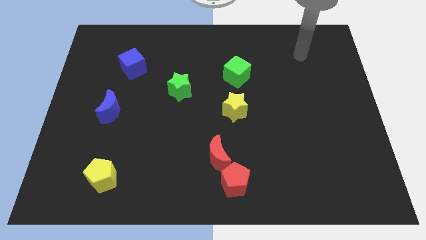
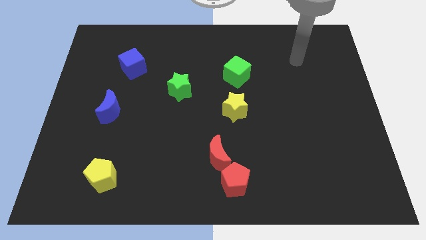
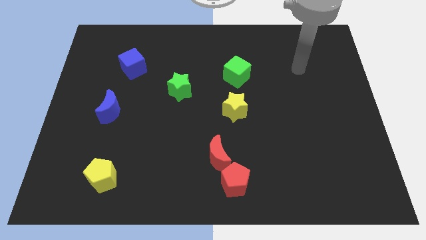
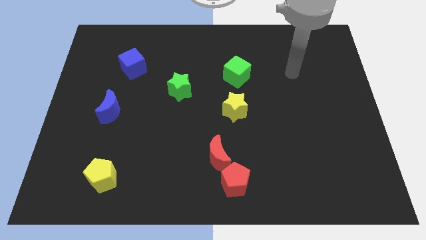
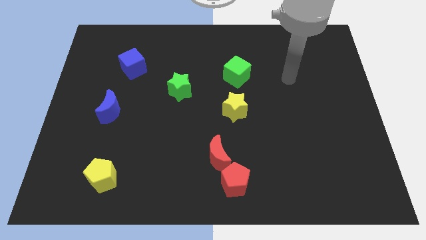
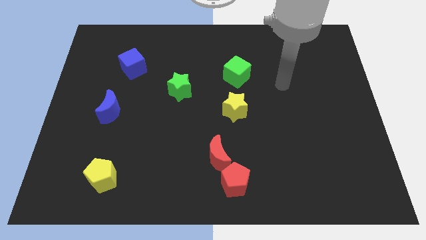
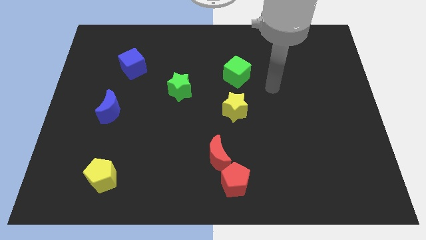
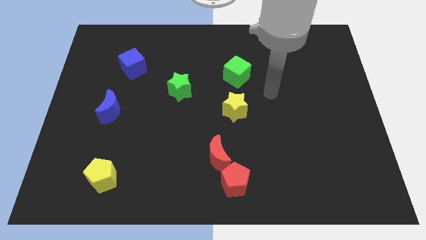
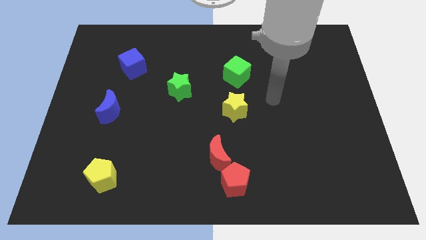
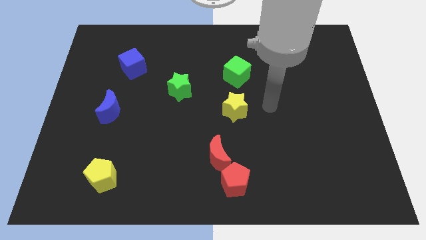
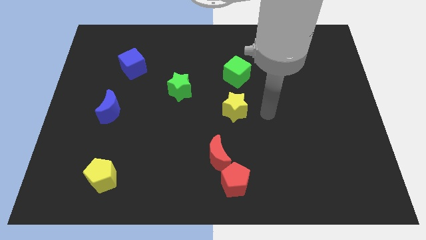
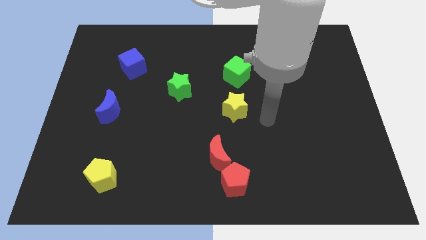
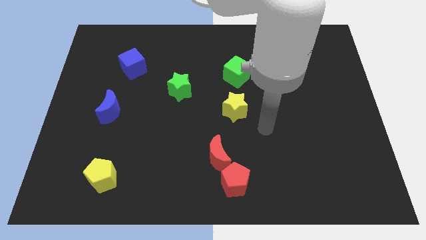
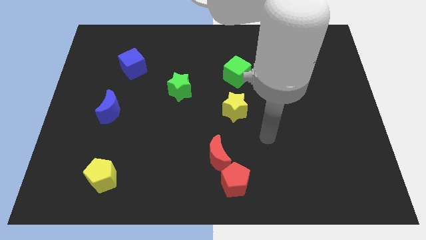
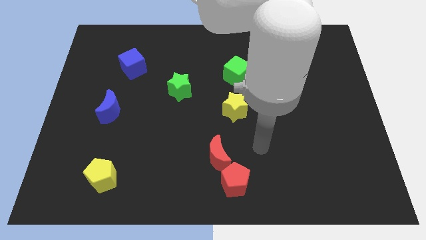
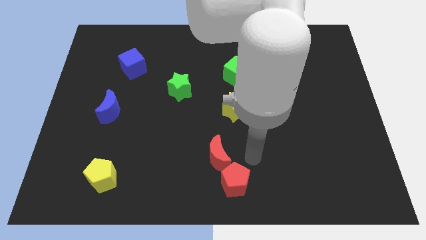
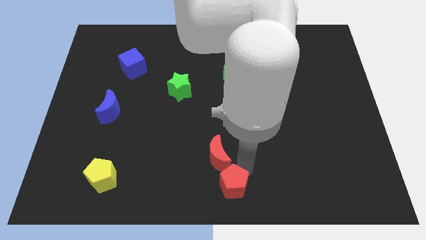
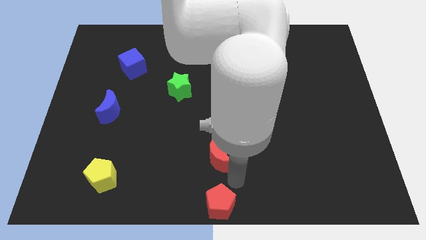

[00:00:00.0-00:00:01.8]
pull the red moon apart from the red pentagon

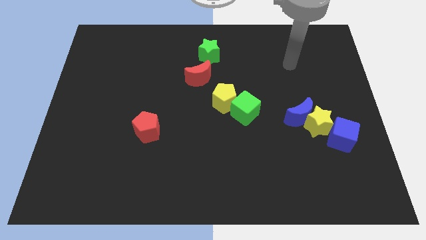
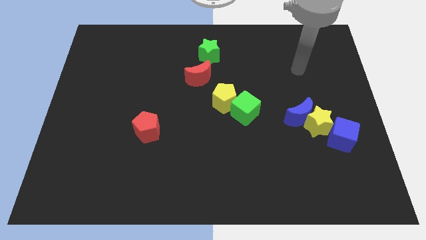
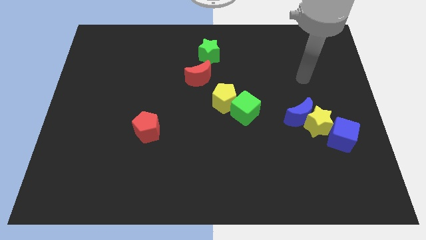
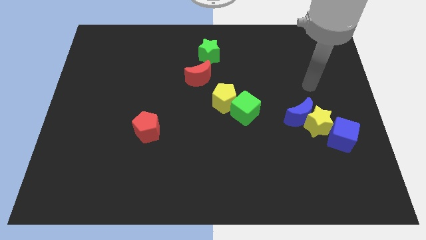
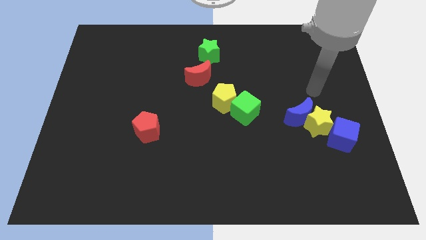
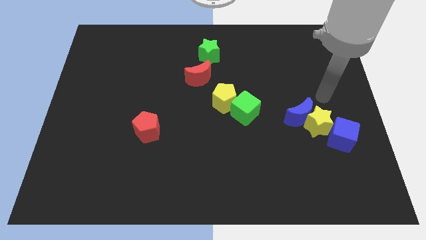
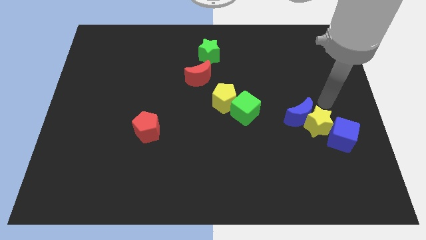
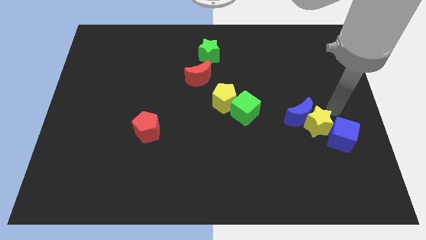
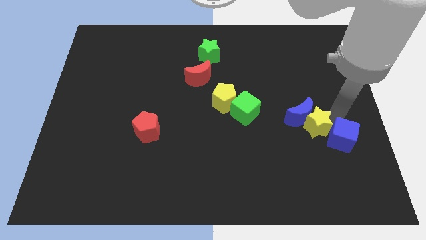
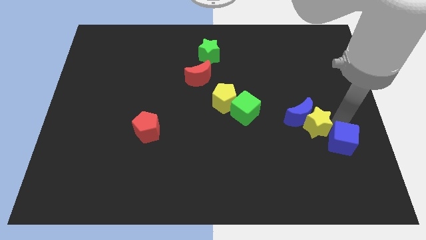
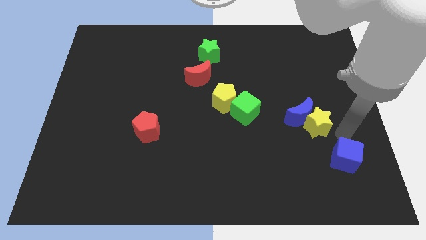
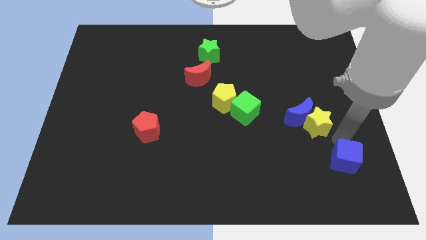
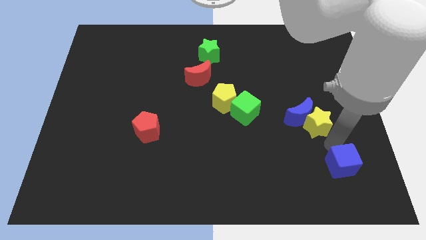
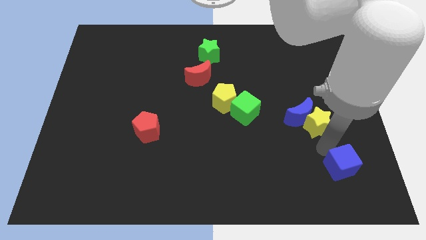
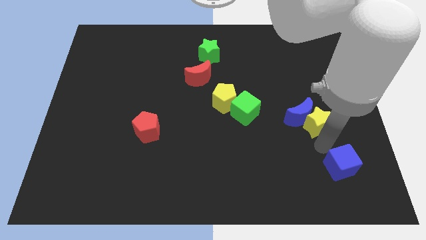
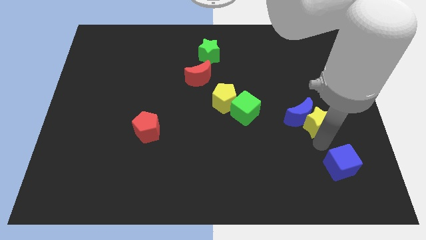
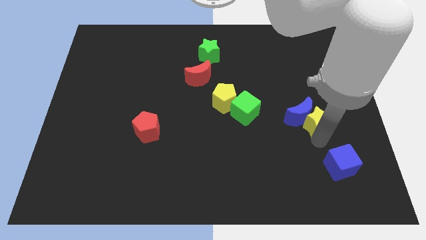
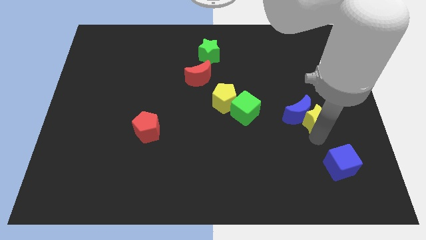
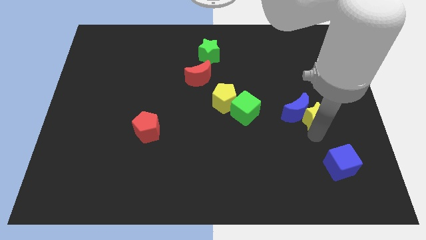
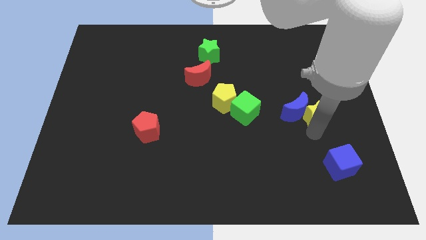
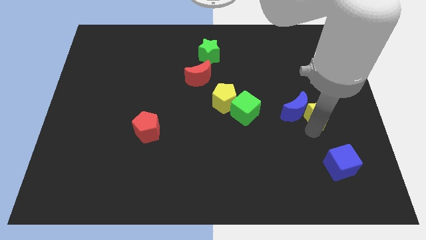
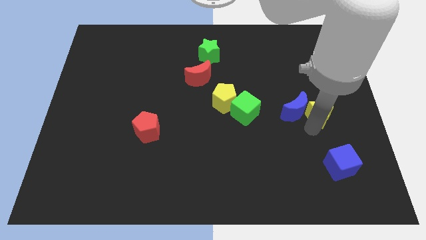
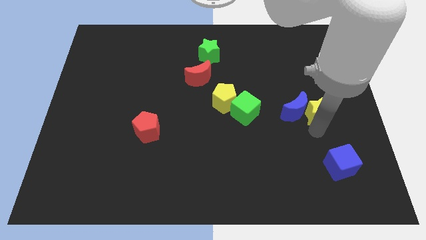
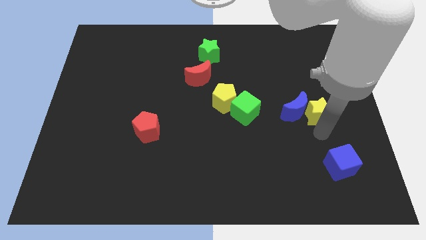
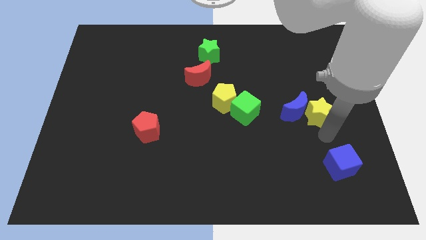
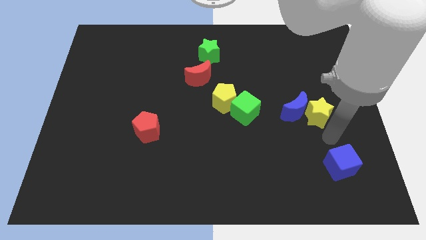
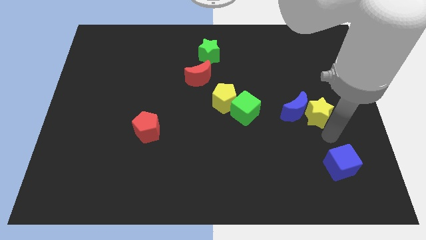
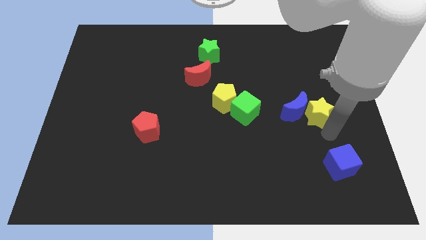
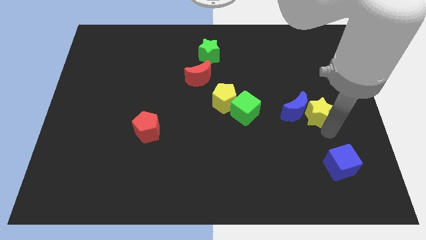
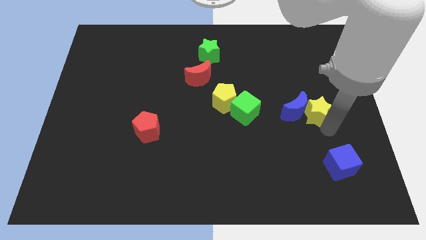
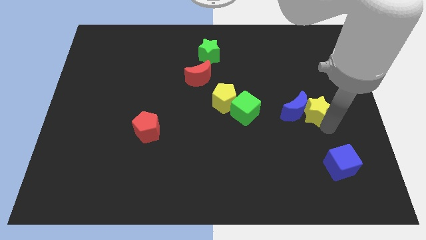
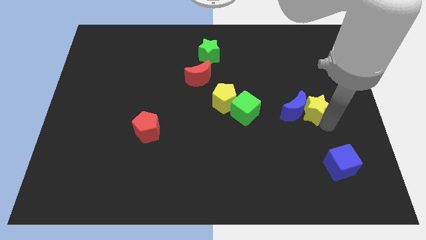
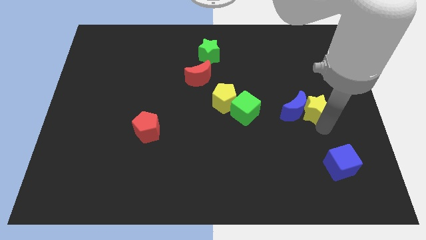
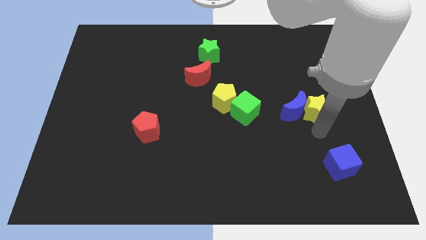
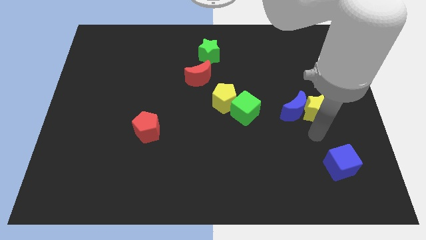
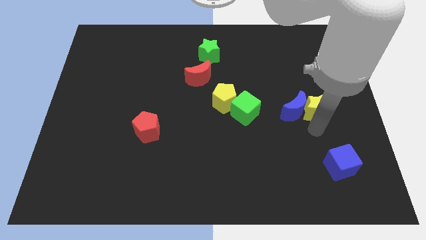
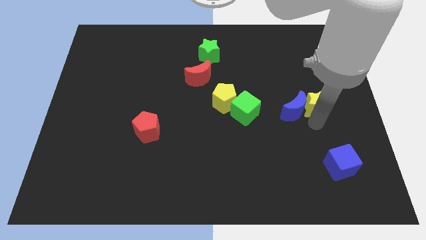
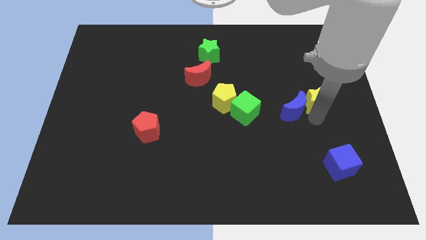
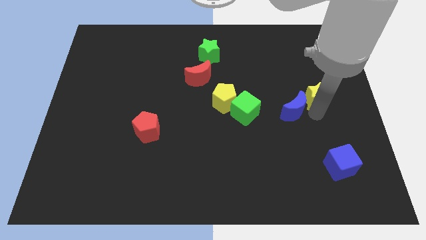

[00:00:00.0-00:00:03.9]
move the yellow star away from the blue moon and blue cube

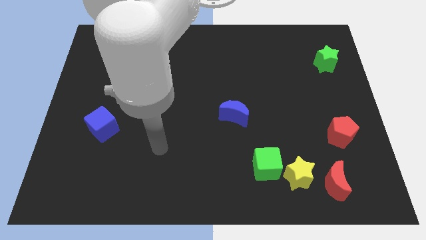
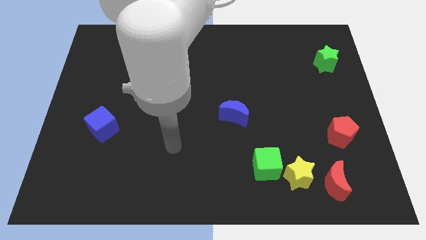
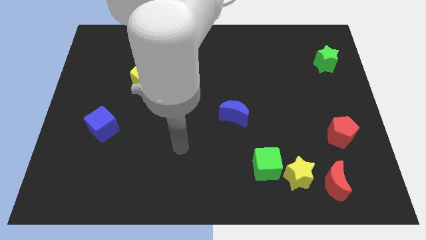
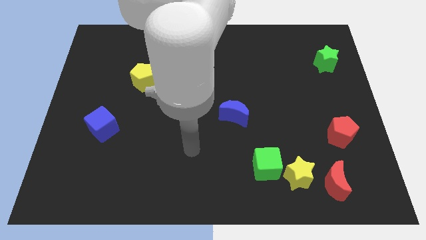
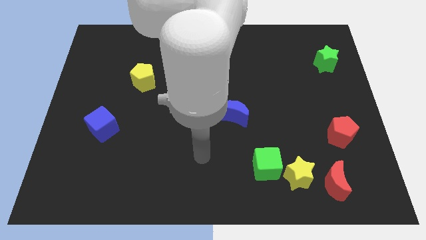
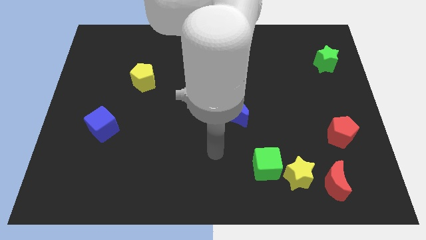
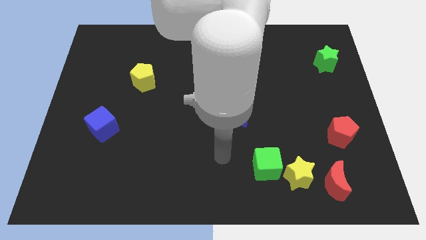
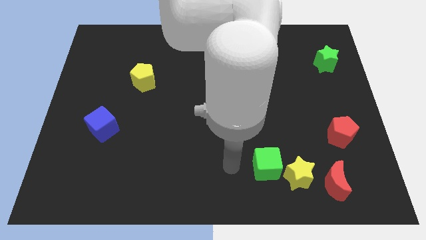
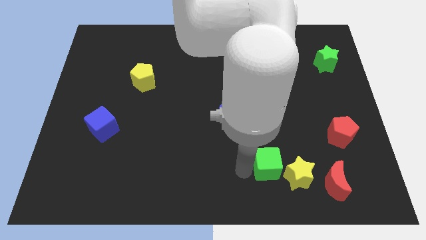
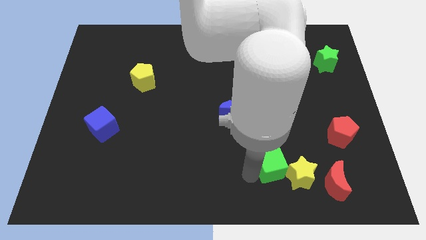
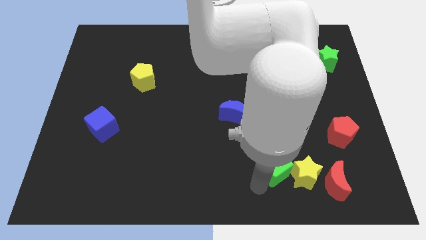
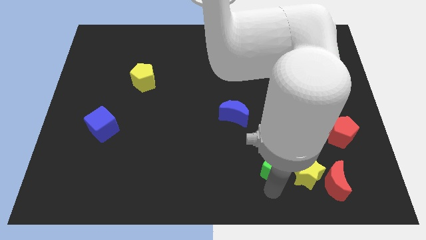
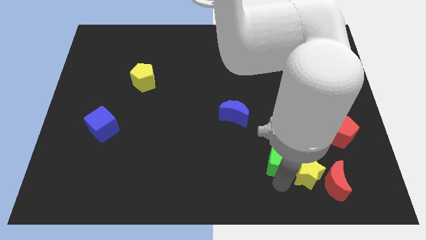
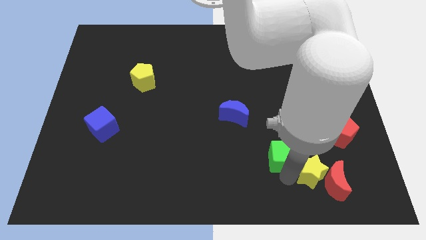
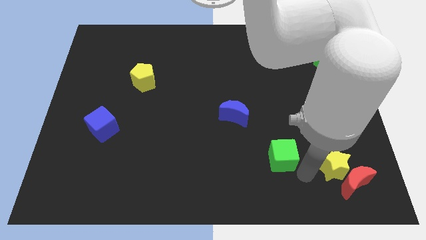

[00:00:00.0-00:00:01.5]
separate the green cube from the yellow star

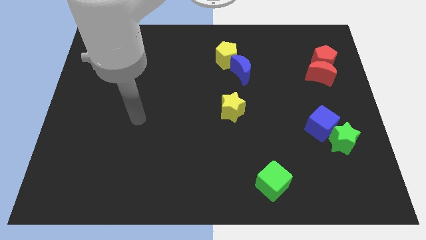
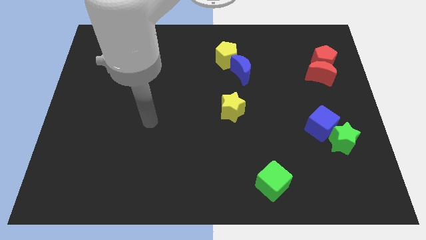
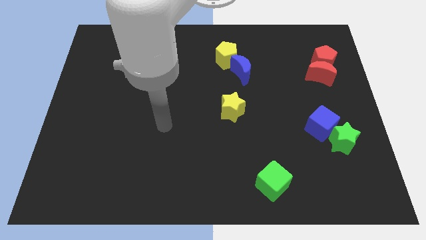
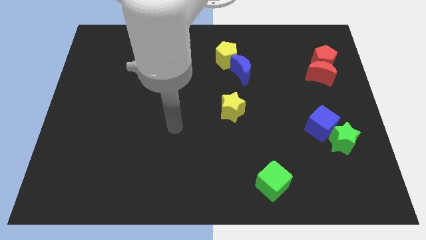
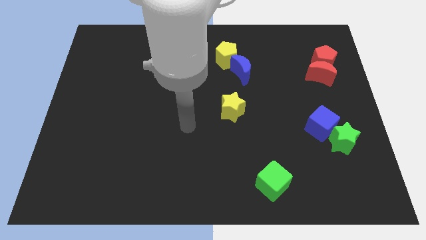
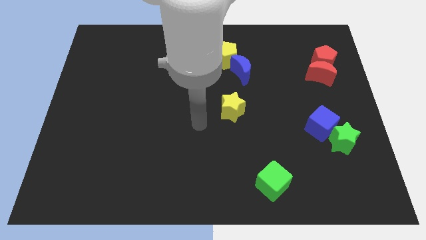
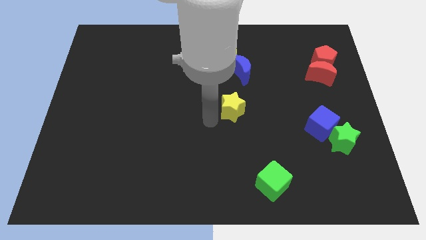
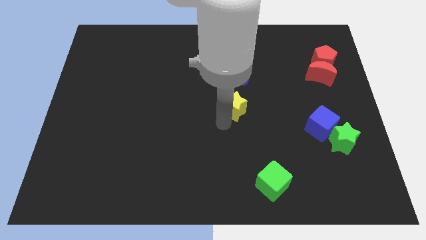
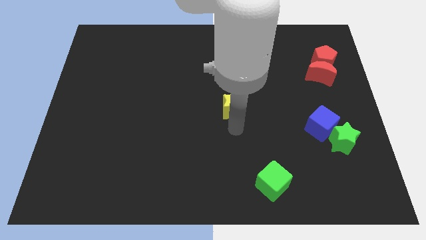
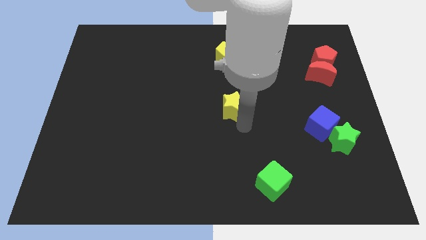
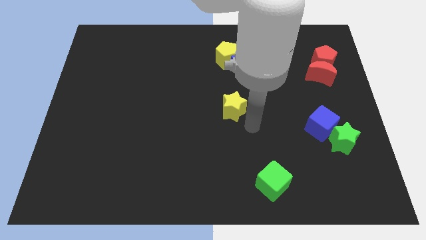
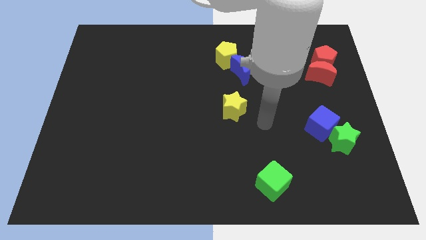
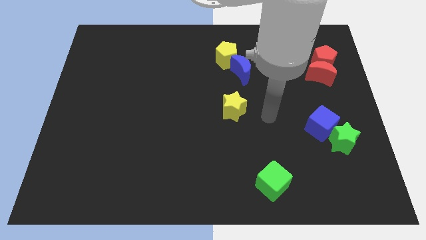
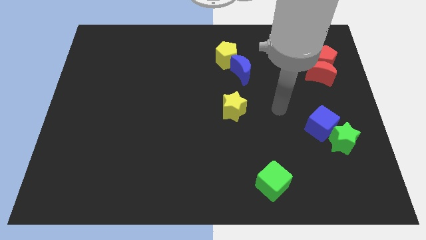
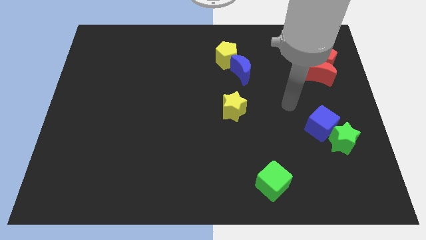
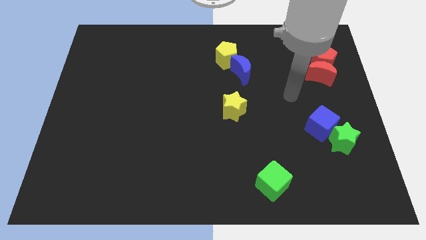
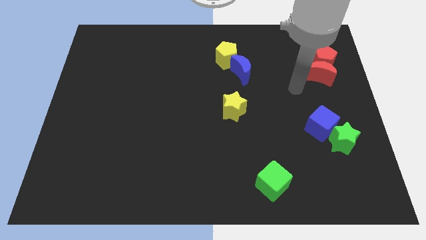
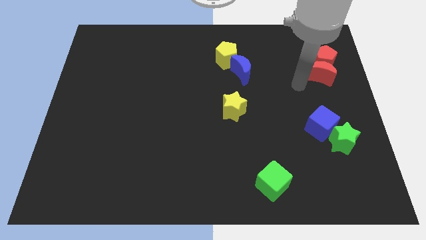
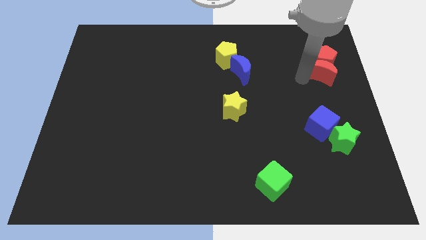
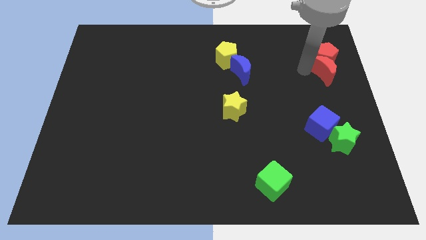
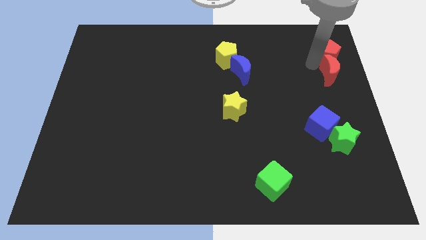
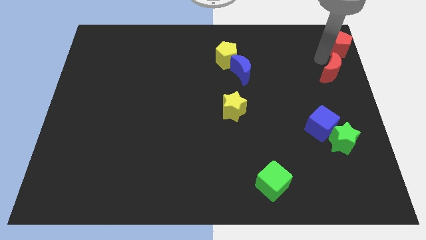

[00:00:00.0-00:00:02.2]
move the red moon away from the red pentagon

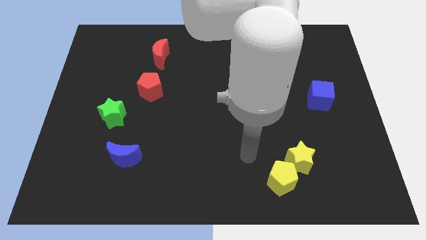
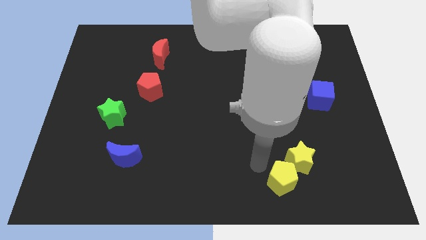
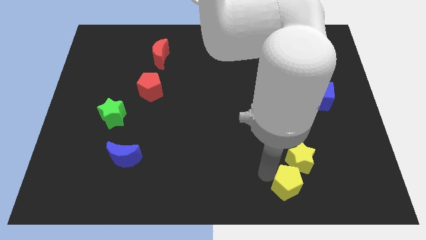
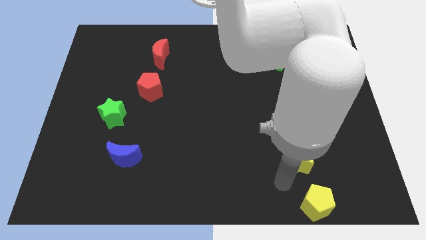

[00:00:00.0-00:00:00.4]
separate the yellow star from the yellow pentagon
